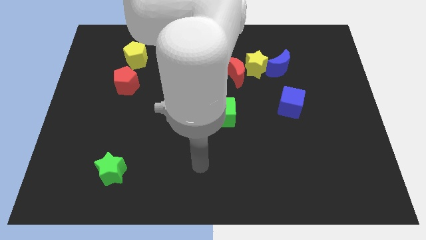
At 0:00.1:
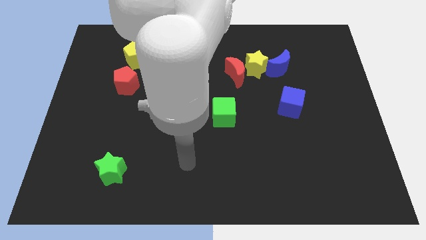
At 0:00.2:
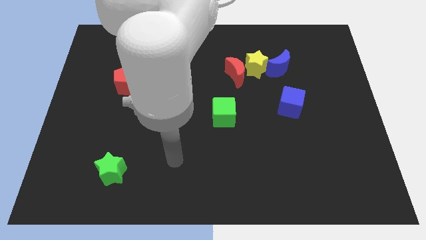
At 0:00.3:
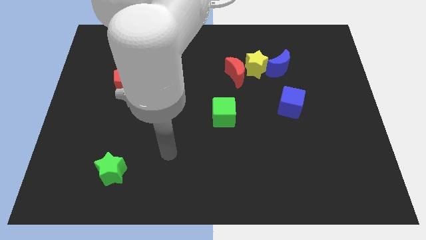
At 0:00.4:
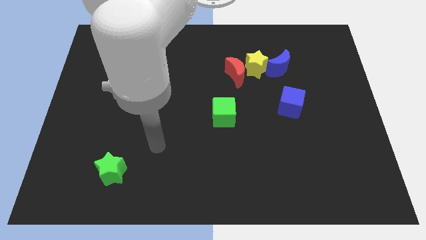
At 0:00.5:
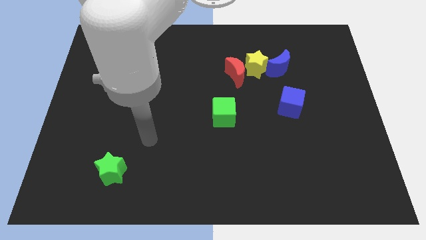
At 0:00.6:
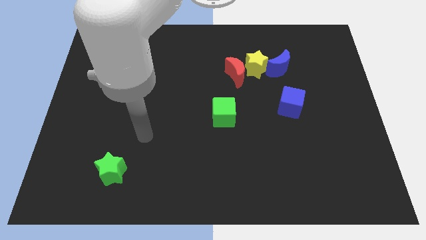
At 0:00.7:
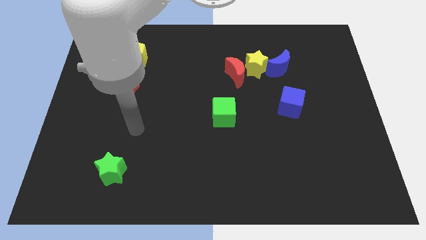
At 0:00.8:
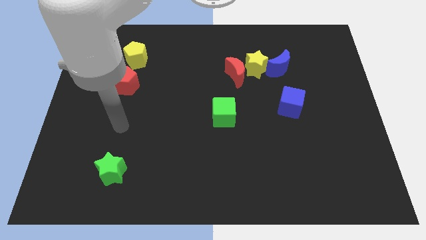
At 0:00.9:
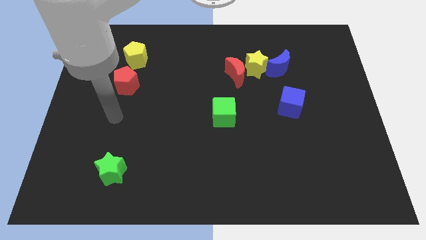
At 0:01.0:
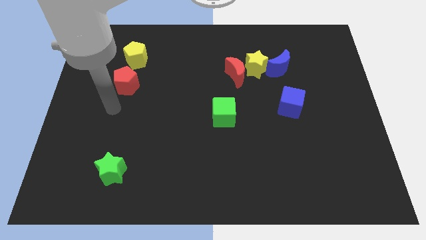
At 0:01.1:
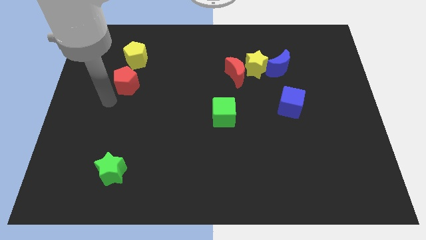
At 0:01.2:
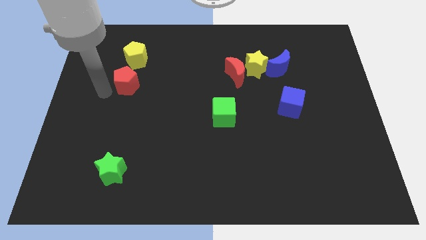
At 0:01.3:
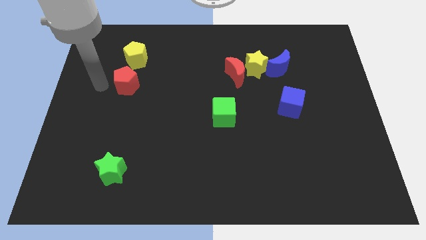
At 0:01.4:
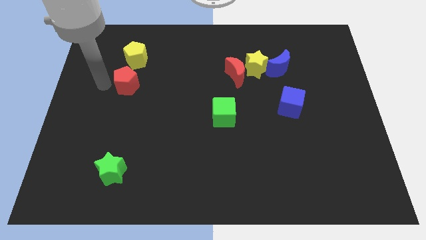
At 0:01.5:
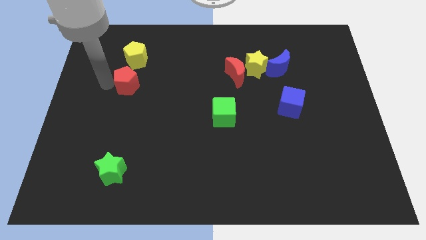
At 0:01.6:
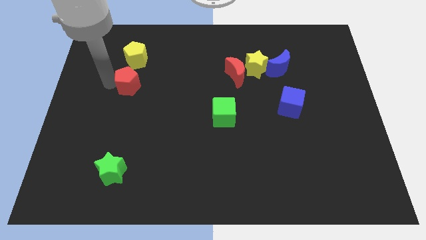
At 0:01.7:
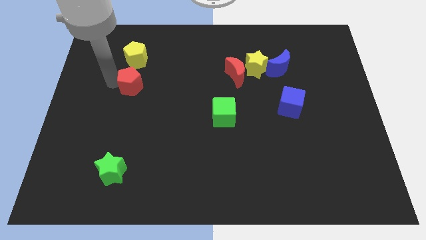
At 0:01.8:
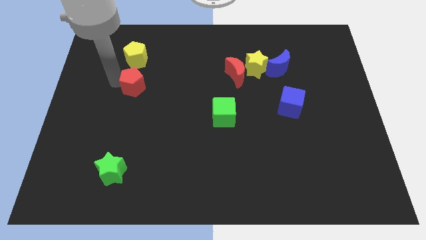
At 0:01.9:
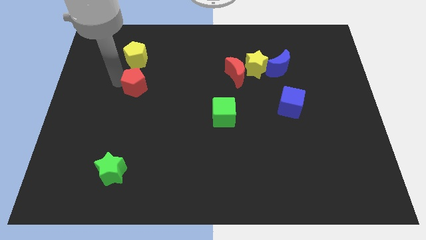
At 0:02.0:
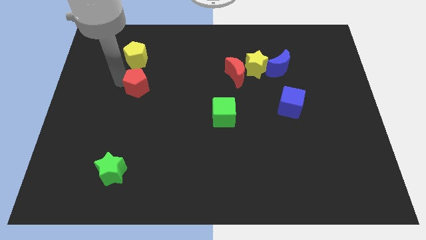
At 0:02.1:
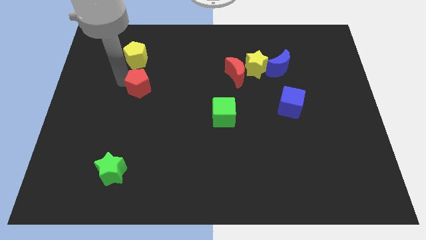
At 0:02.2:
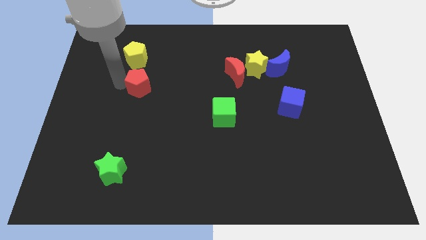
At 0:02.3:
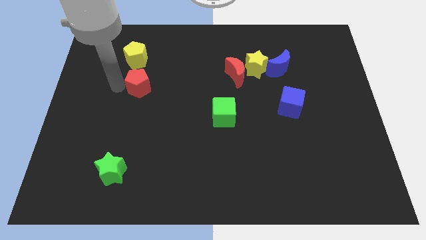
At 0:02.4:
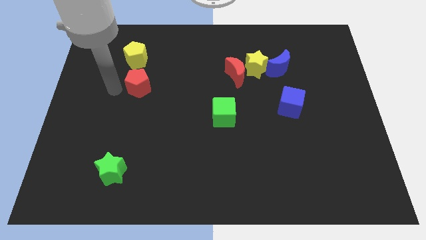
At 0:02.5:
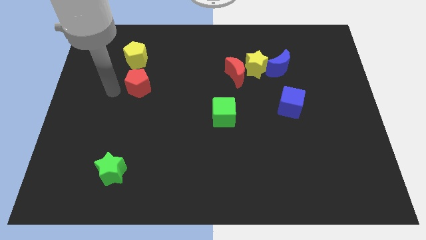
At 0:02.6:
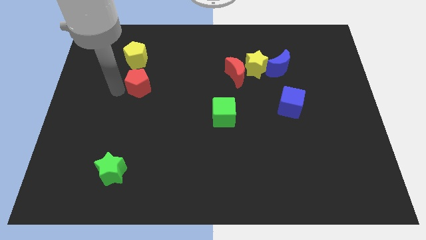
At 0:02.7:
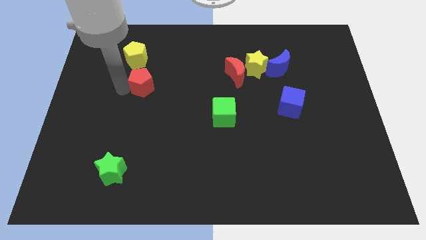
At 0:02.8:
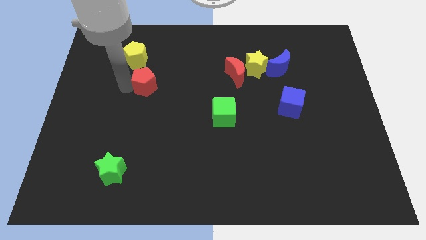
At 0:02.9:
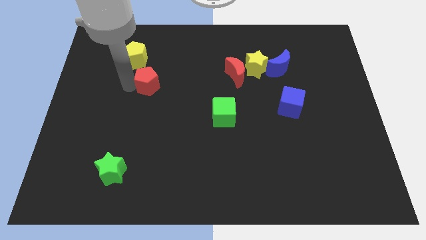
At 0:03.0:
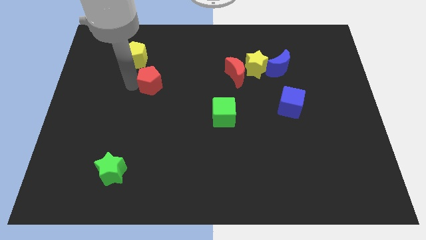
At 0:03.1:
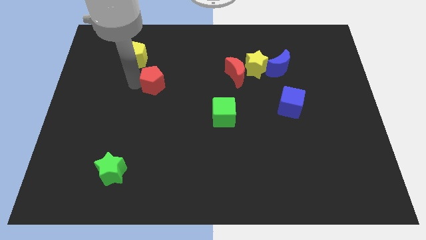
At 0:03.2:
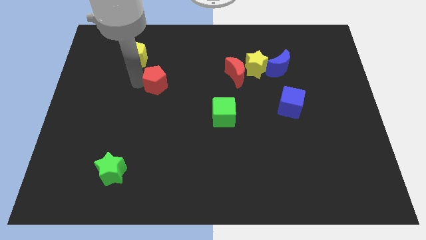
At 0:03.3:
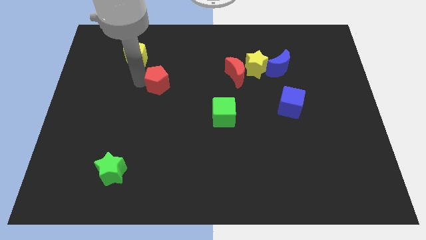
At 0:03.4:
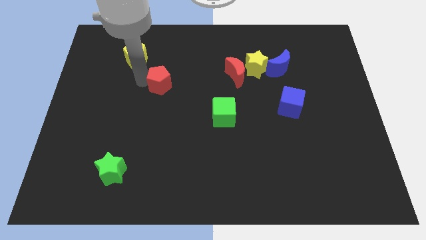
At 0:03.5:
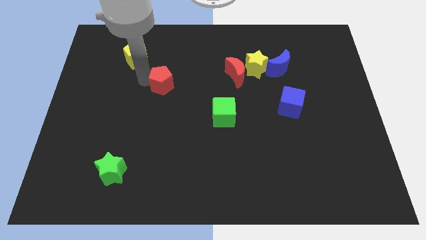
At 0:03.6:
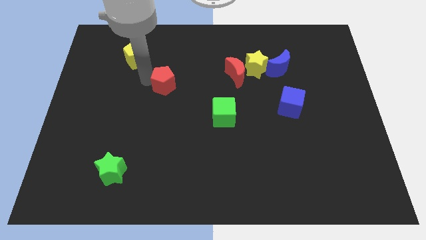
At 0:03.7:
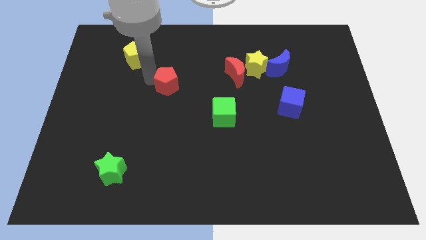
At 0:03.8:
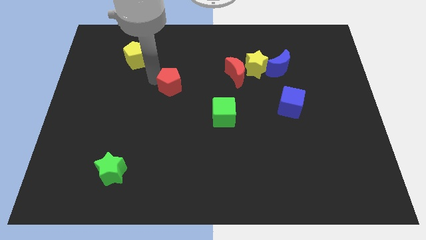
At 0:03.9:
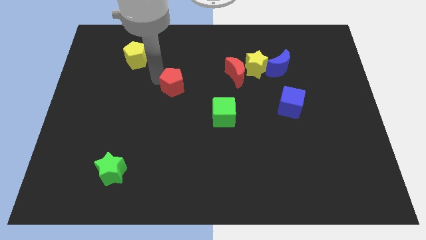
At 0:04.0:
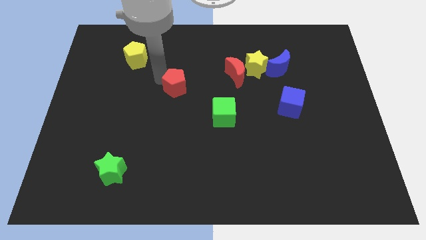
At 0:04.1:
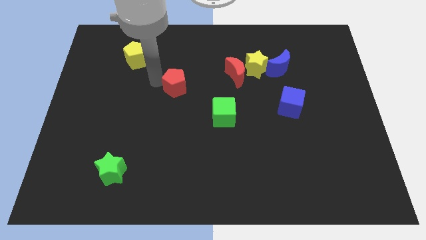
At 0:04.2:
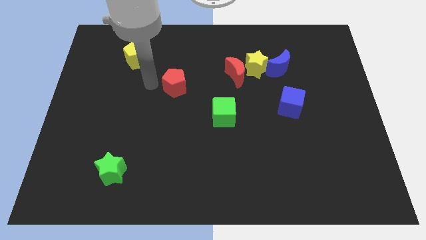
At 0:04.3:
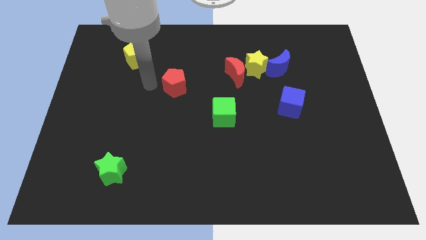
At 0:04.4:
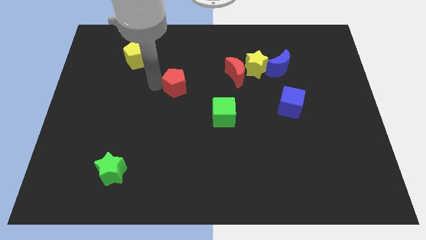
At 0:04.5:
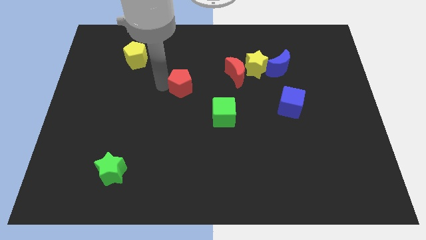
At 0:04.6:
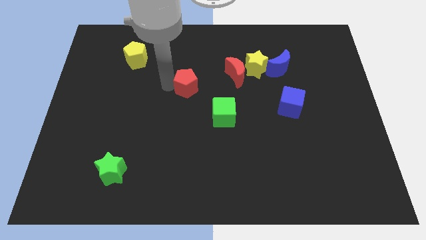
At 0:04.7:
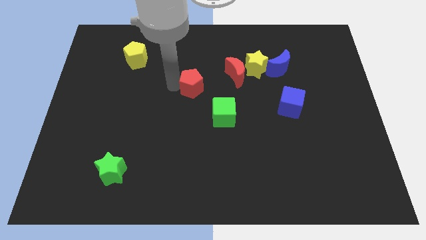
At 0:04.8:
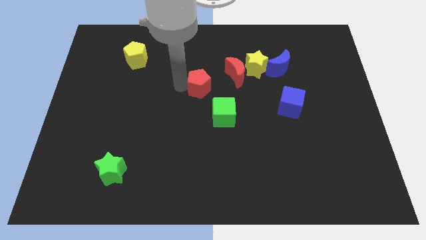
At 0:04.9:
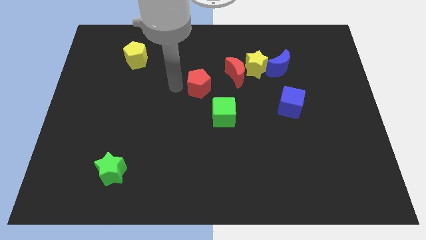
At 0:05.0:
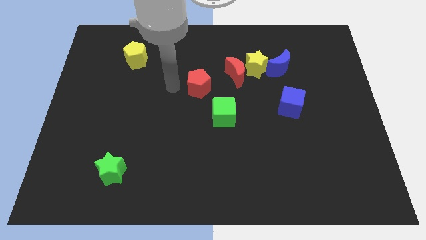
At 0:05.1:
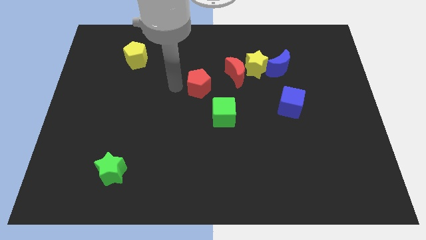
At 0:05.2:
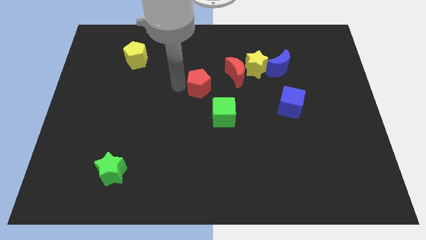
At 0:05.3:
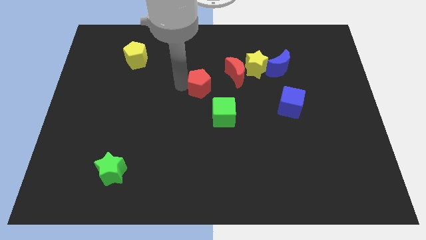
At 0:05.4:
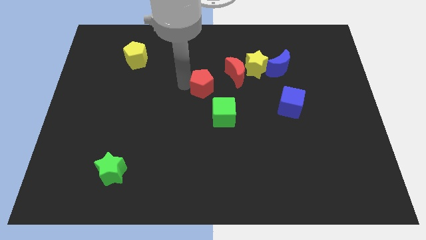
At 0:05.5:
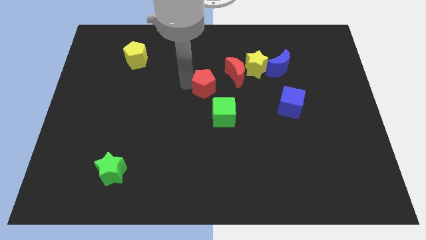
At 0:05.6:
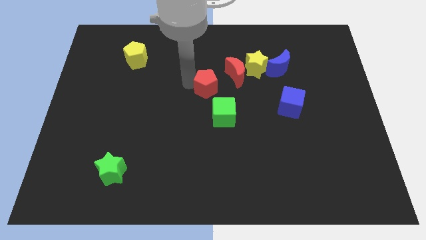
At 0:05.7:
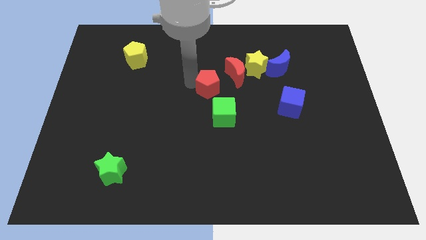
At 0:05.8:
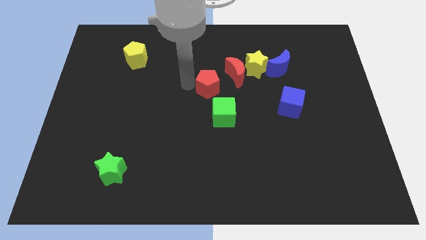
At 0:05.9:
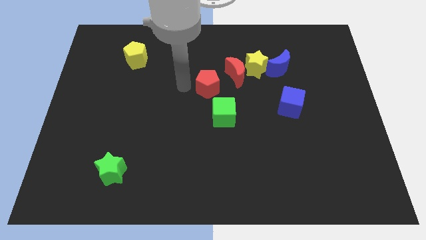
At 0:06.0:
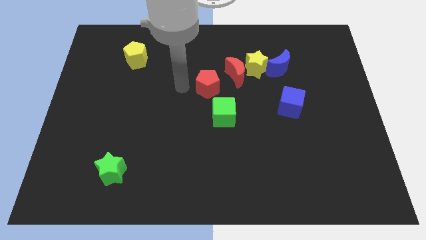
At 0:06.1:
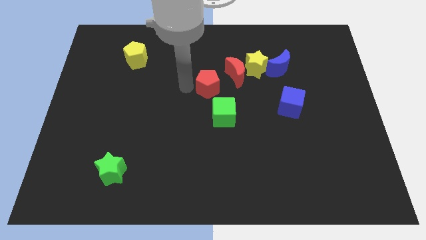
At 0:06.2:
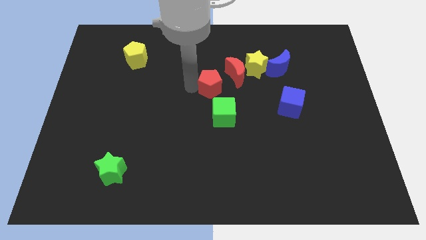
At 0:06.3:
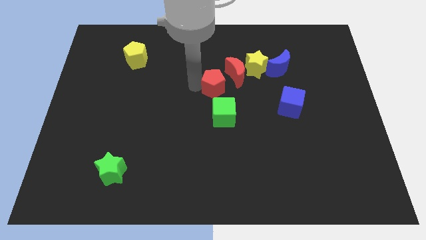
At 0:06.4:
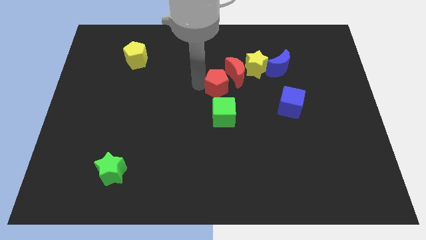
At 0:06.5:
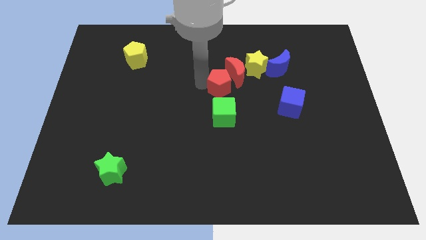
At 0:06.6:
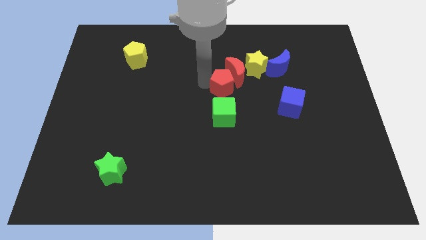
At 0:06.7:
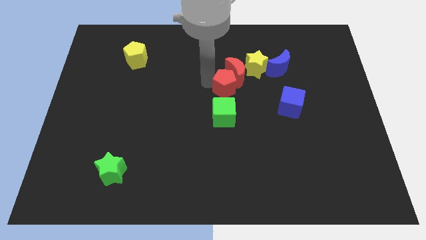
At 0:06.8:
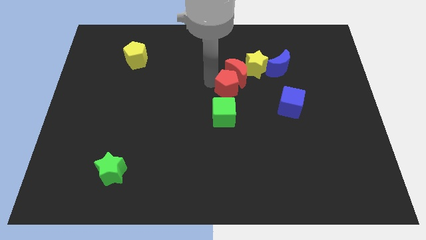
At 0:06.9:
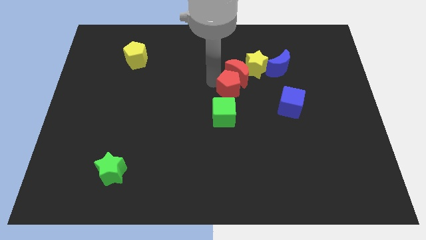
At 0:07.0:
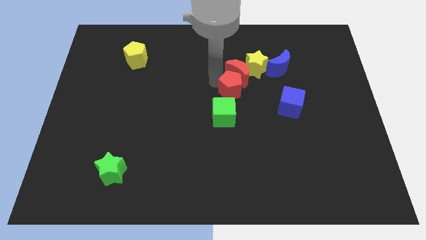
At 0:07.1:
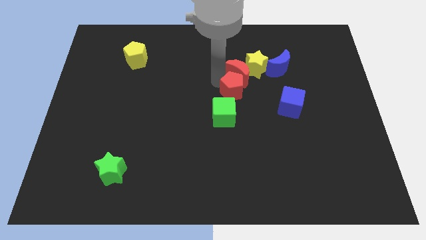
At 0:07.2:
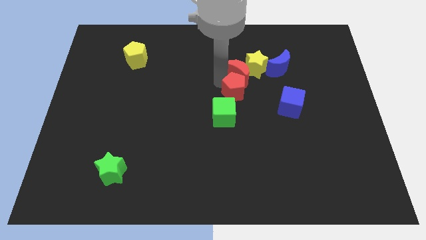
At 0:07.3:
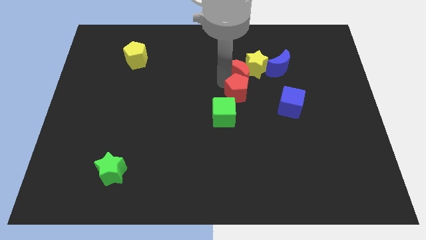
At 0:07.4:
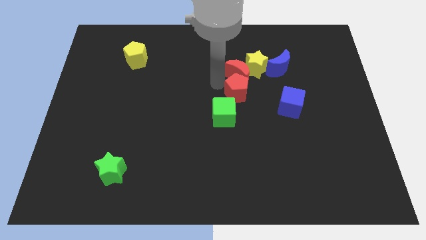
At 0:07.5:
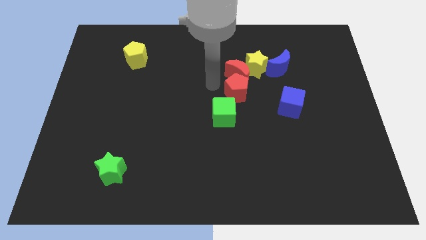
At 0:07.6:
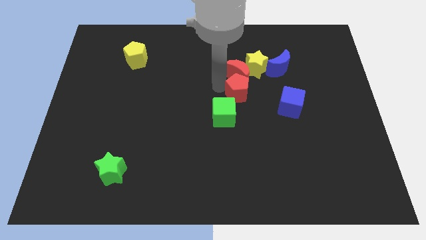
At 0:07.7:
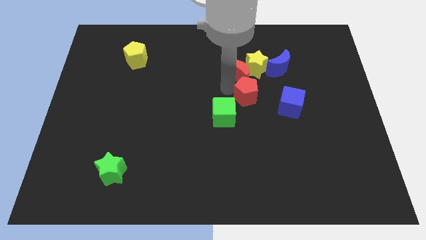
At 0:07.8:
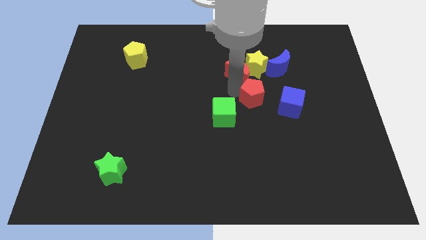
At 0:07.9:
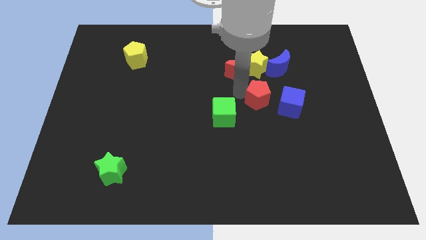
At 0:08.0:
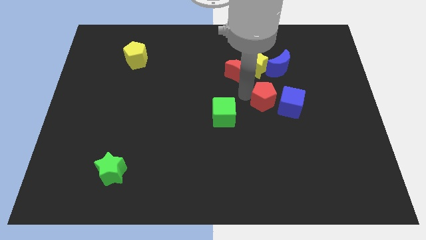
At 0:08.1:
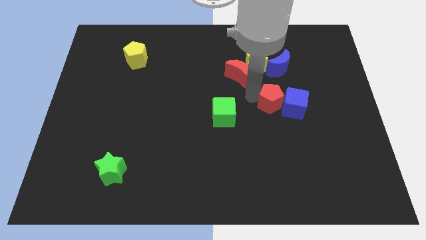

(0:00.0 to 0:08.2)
push the red pentagon next to the blue cube
